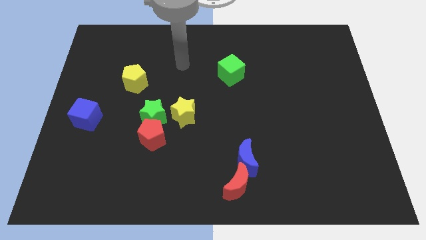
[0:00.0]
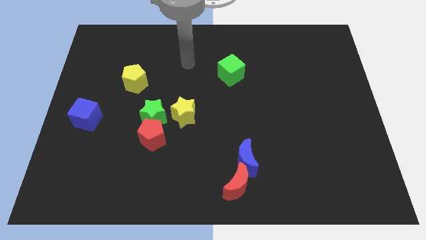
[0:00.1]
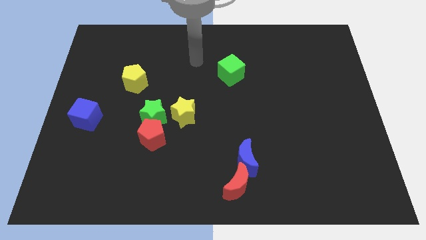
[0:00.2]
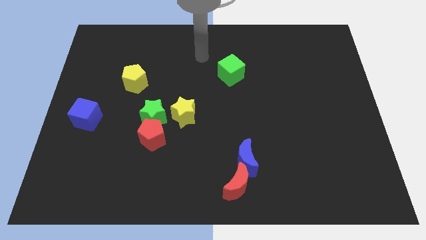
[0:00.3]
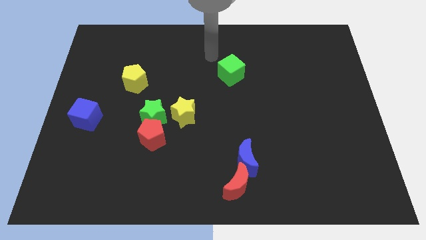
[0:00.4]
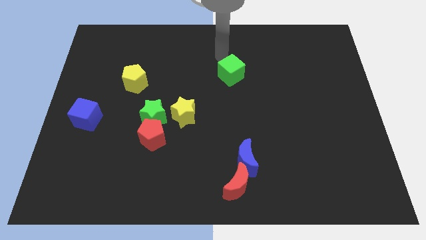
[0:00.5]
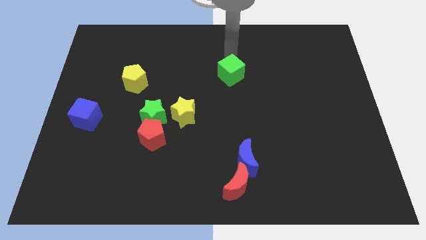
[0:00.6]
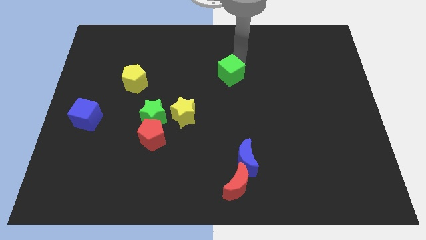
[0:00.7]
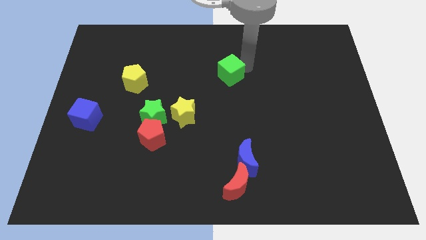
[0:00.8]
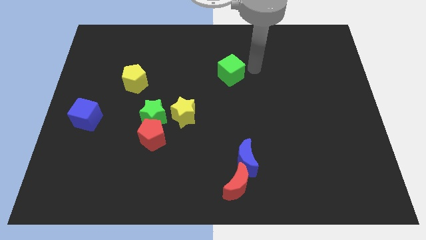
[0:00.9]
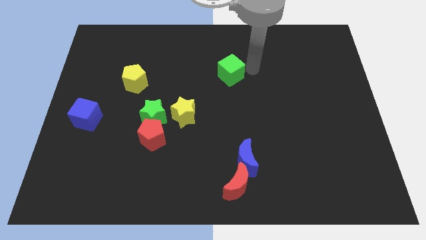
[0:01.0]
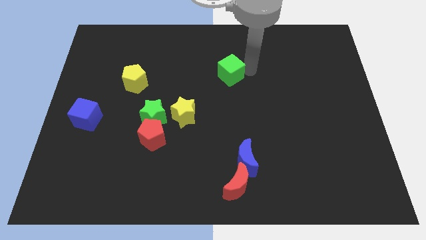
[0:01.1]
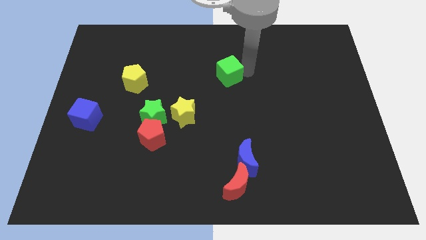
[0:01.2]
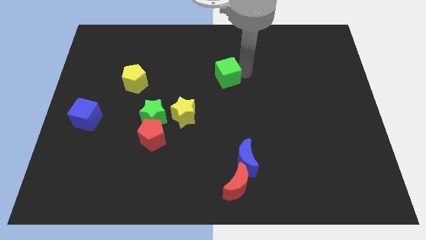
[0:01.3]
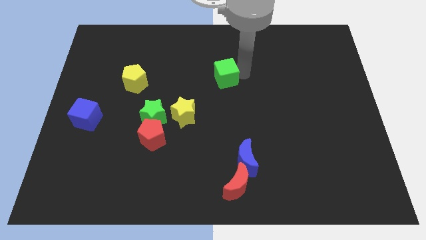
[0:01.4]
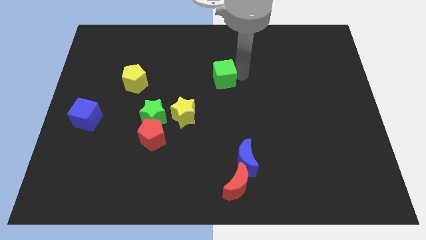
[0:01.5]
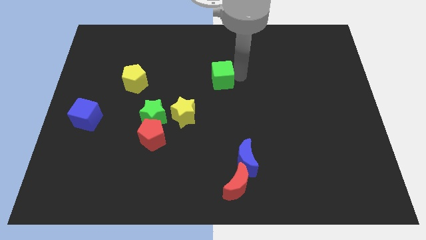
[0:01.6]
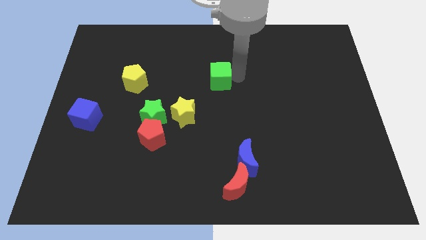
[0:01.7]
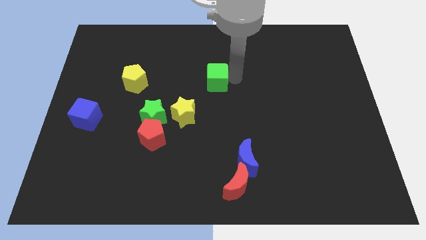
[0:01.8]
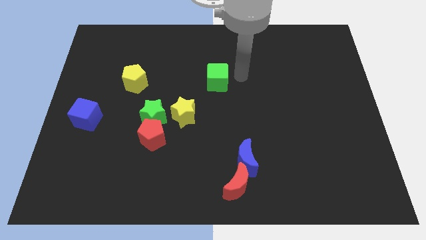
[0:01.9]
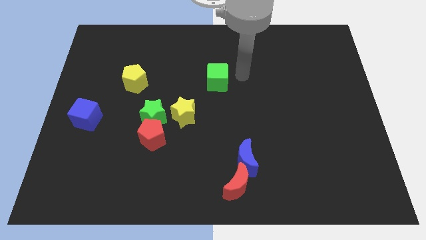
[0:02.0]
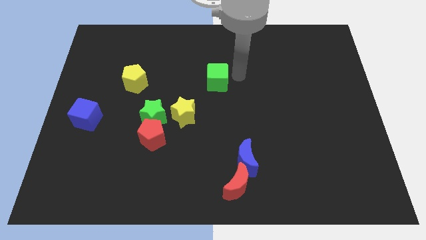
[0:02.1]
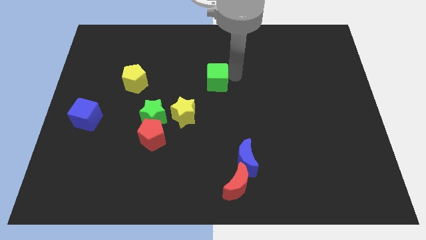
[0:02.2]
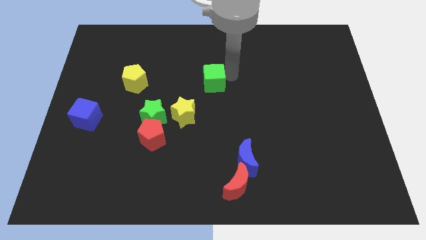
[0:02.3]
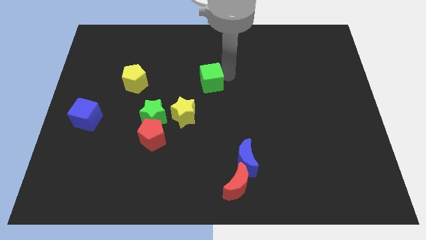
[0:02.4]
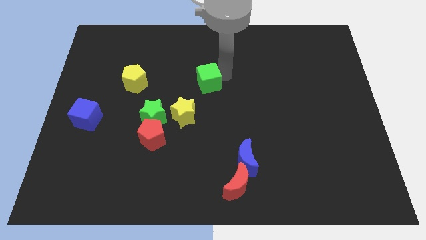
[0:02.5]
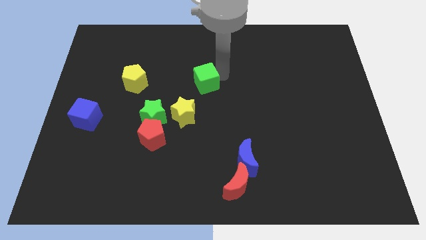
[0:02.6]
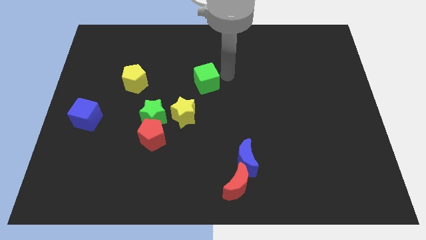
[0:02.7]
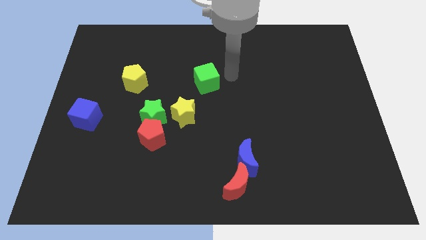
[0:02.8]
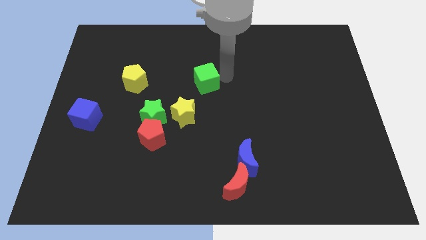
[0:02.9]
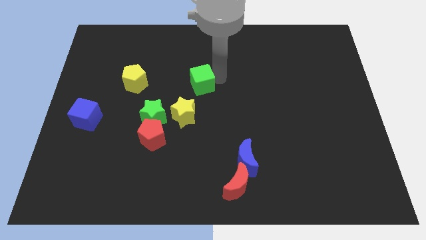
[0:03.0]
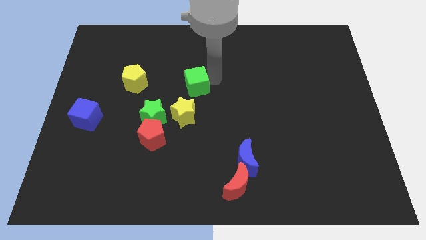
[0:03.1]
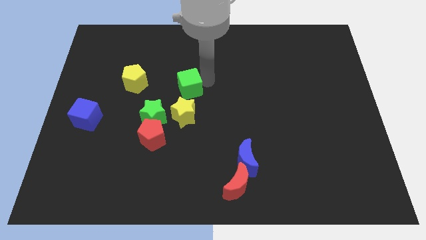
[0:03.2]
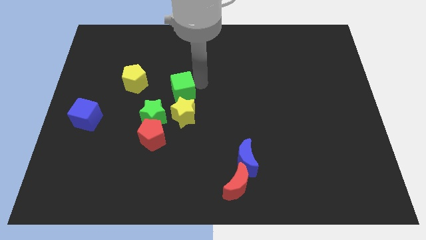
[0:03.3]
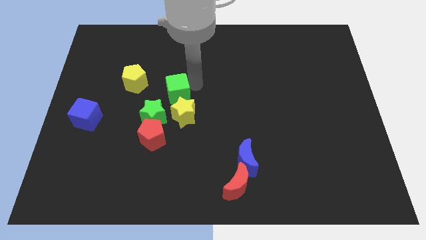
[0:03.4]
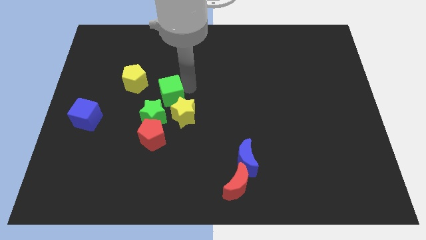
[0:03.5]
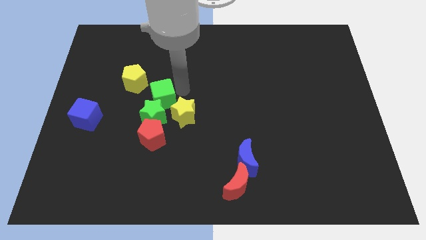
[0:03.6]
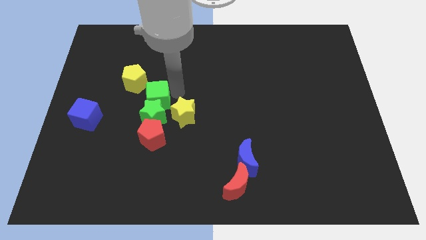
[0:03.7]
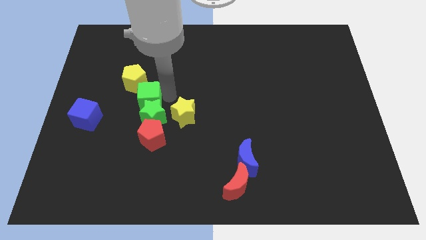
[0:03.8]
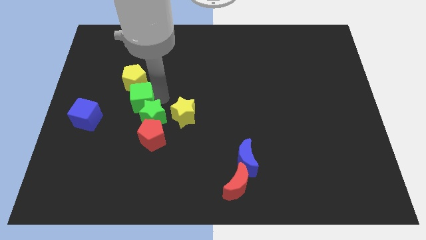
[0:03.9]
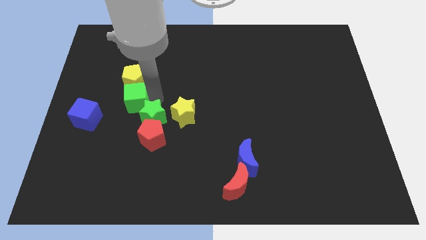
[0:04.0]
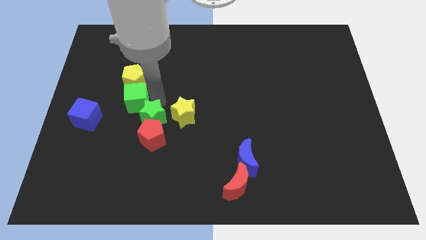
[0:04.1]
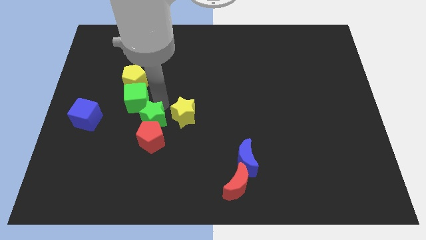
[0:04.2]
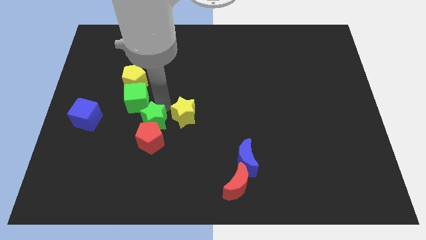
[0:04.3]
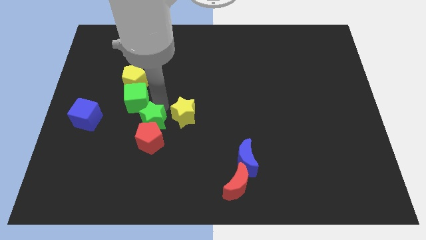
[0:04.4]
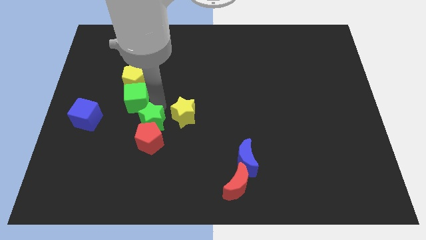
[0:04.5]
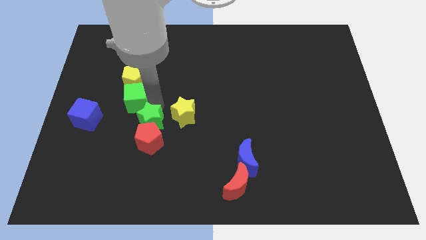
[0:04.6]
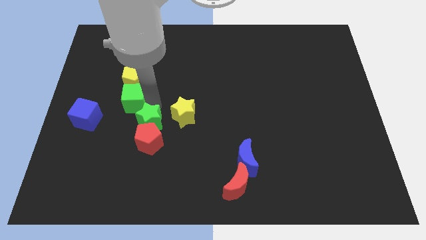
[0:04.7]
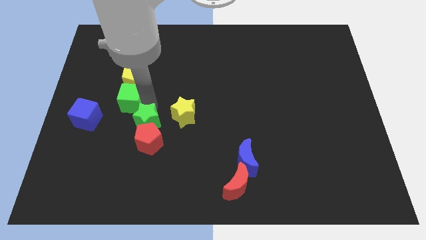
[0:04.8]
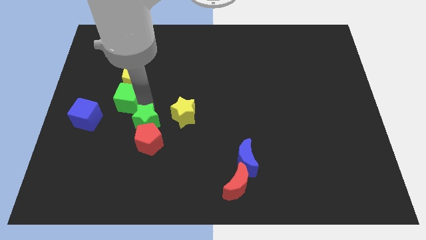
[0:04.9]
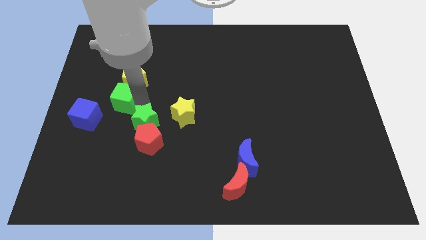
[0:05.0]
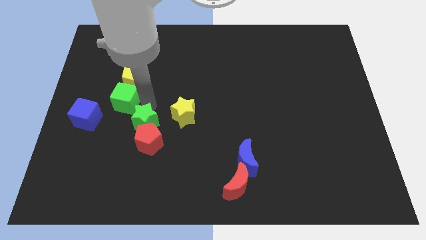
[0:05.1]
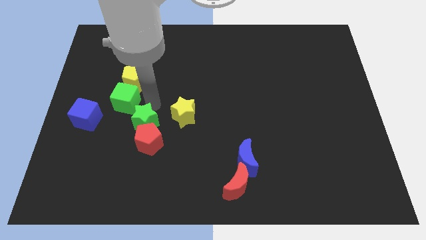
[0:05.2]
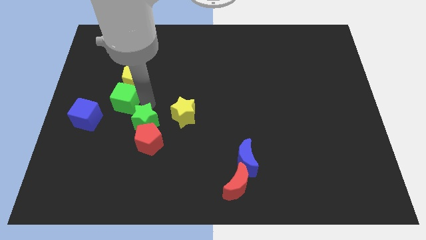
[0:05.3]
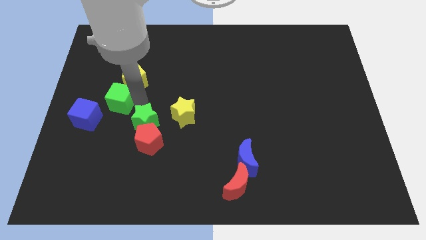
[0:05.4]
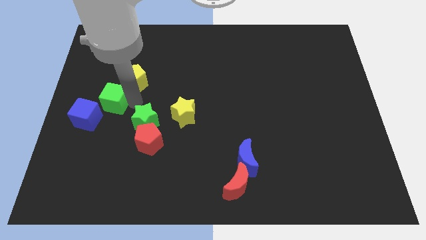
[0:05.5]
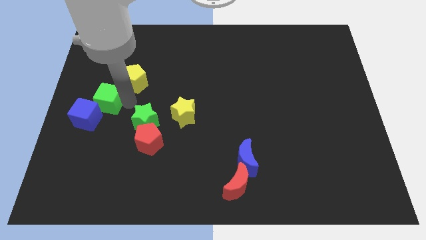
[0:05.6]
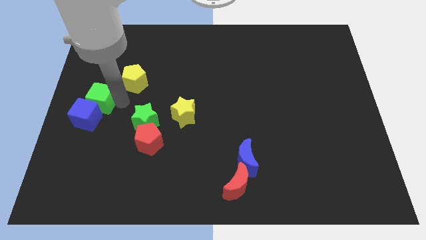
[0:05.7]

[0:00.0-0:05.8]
push the green cube to the left side of the board
